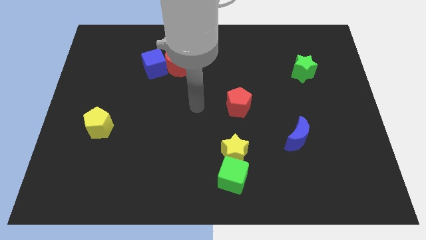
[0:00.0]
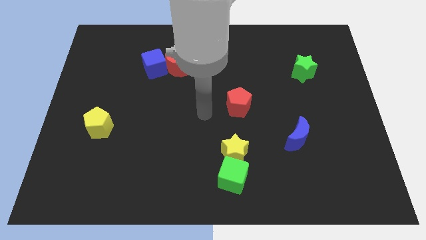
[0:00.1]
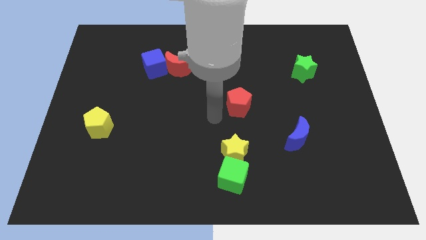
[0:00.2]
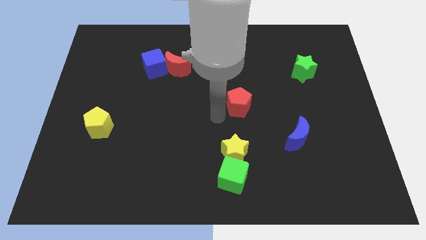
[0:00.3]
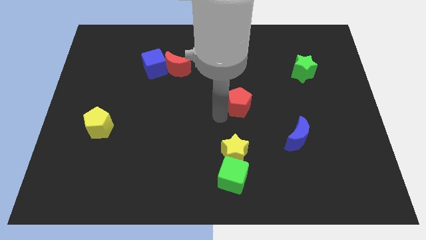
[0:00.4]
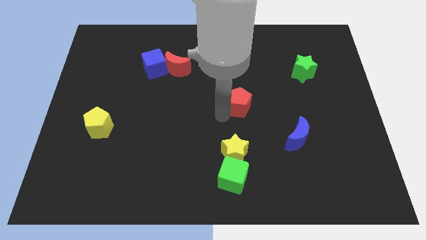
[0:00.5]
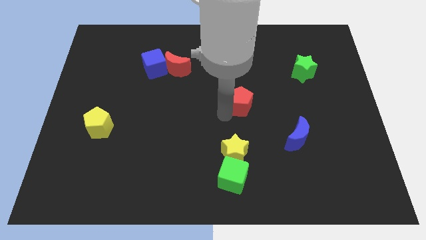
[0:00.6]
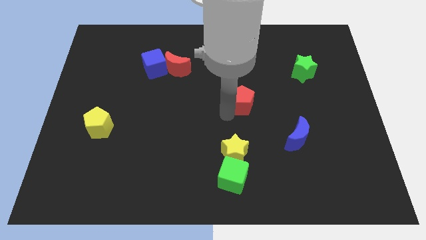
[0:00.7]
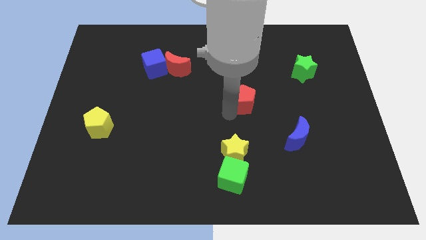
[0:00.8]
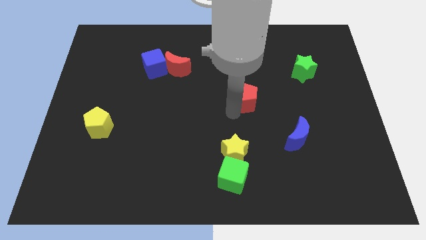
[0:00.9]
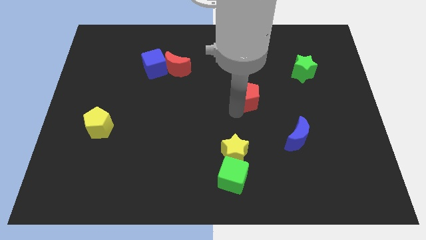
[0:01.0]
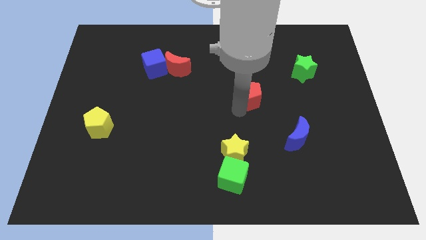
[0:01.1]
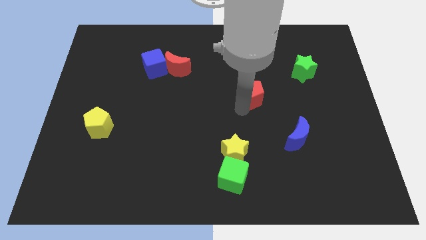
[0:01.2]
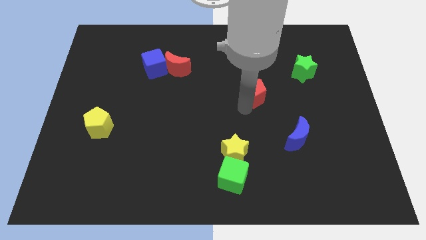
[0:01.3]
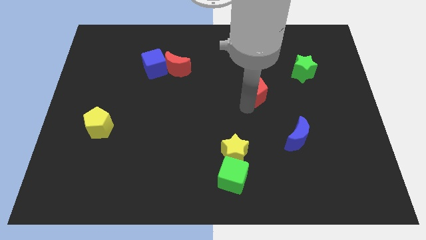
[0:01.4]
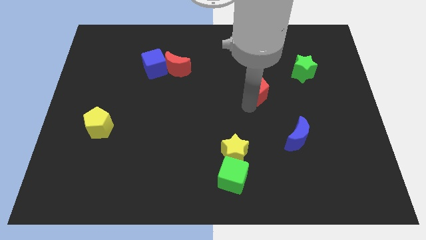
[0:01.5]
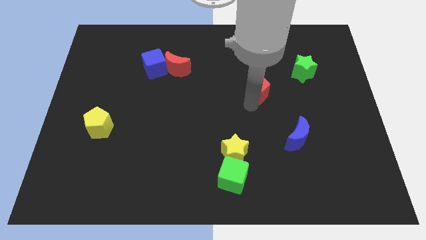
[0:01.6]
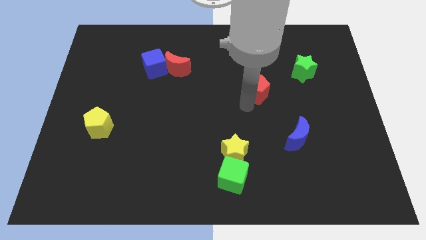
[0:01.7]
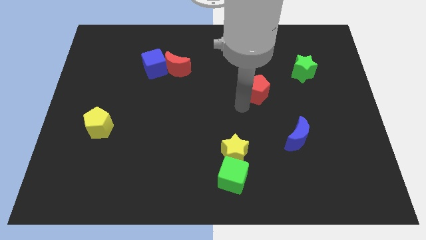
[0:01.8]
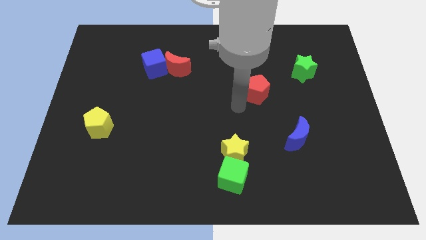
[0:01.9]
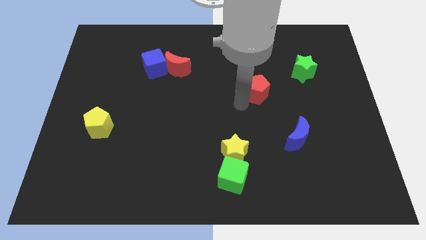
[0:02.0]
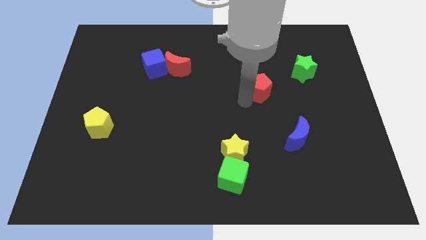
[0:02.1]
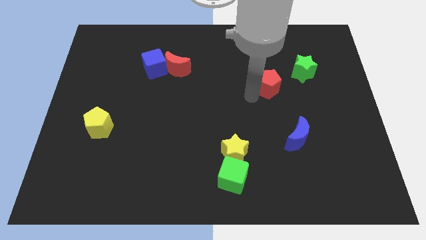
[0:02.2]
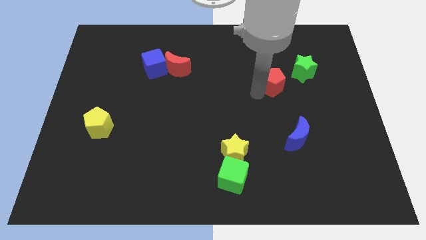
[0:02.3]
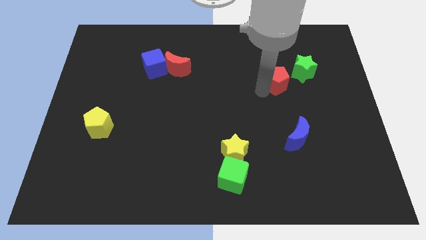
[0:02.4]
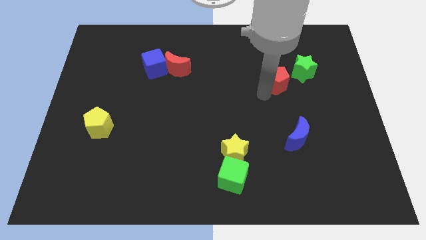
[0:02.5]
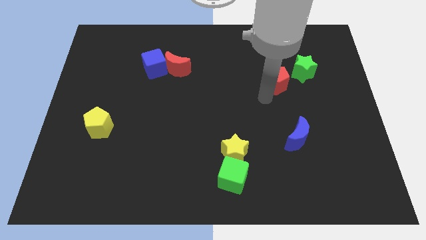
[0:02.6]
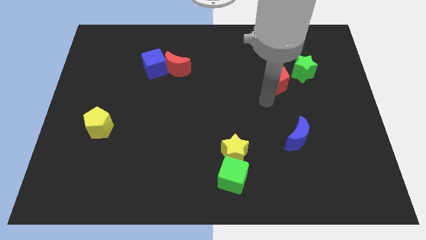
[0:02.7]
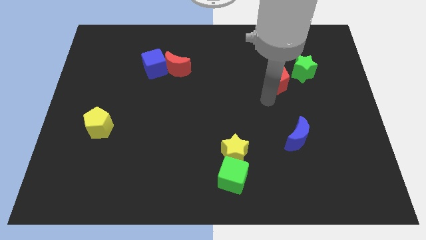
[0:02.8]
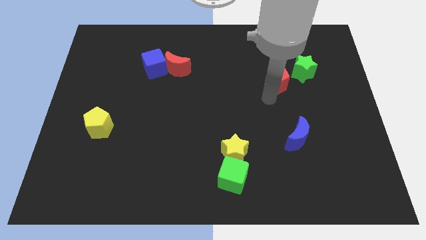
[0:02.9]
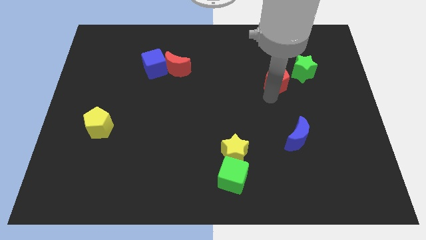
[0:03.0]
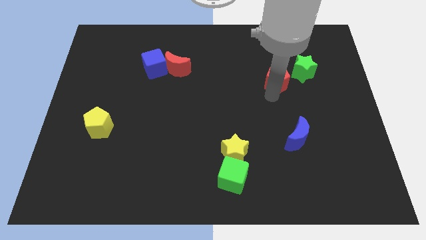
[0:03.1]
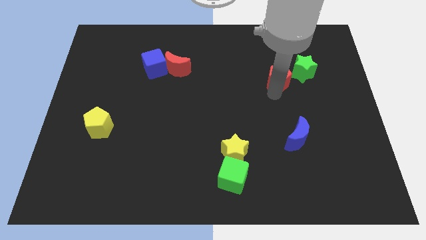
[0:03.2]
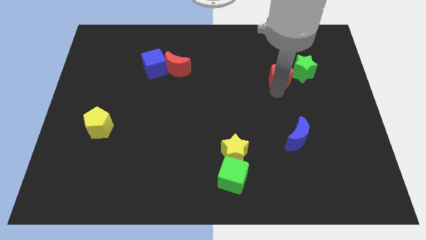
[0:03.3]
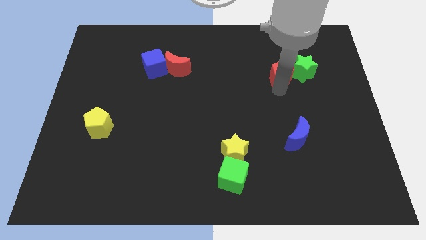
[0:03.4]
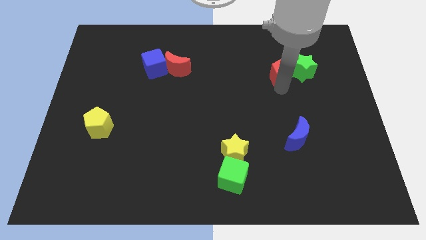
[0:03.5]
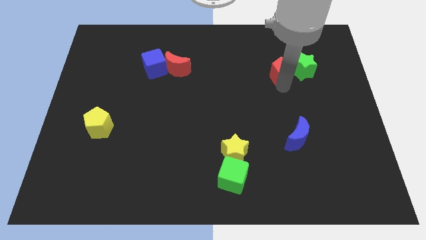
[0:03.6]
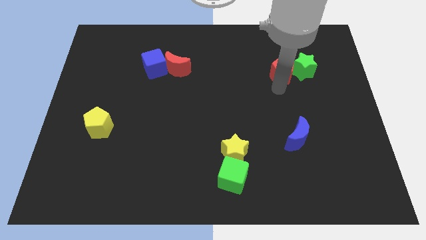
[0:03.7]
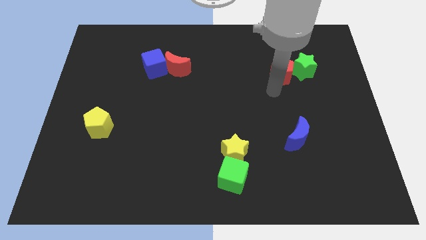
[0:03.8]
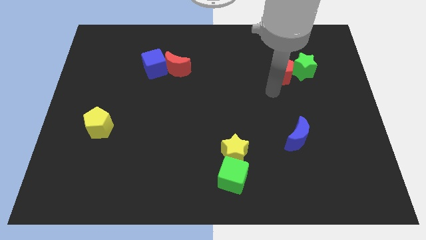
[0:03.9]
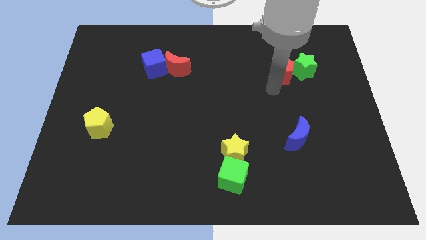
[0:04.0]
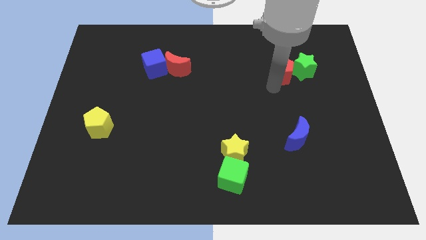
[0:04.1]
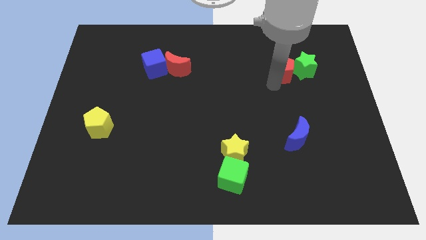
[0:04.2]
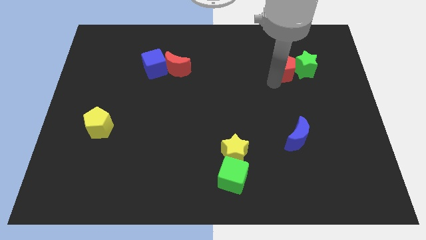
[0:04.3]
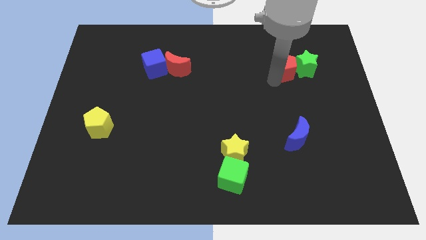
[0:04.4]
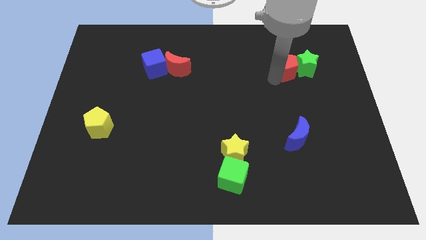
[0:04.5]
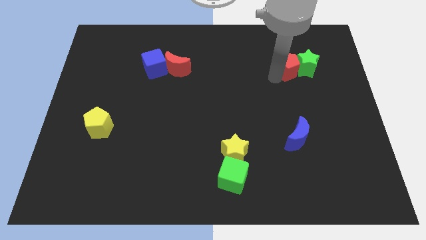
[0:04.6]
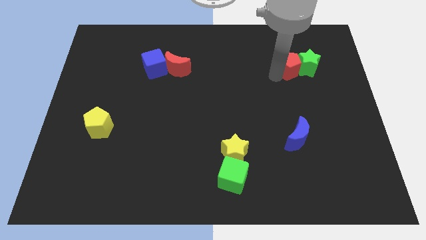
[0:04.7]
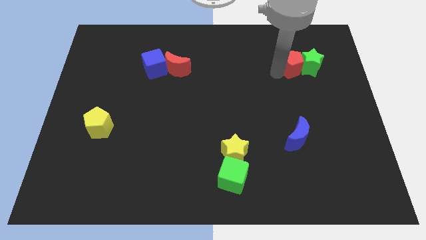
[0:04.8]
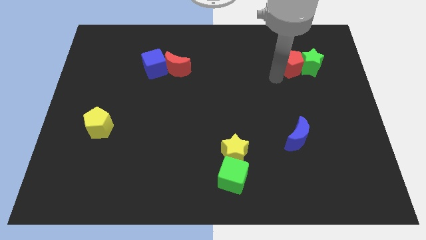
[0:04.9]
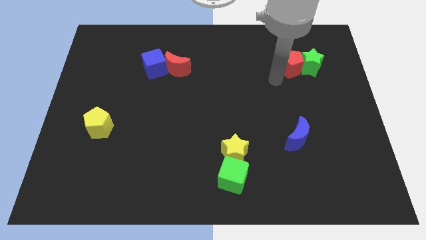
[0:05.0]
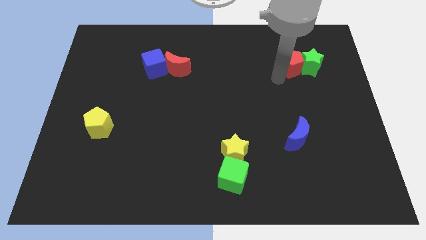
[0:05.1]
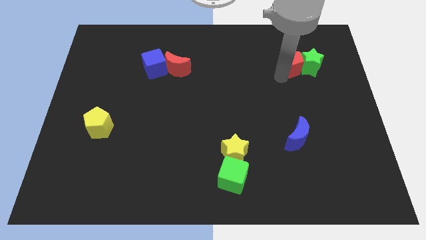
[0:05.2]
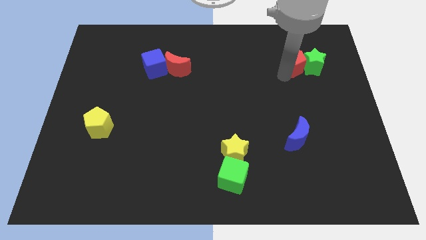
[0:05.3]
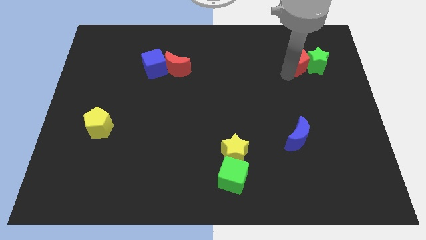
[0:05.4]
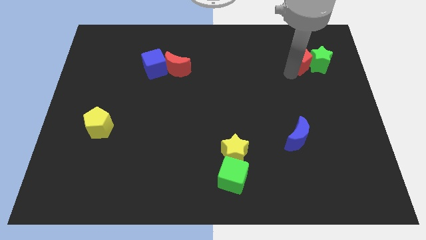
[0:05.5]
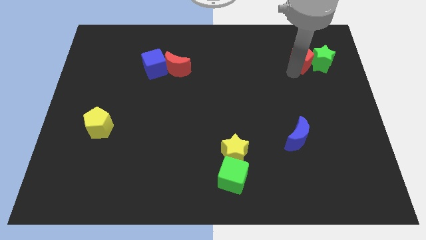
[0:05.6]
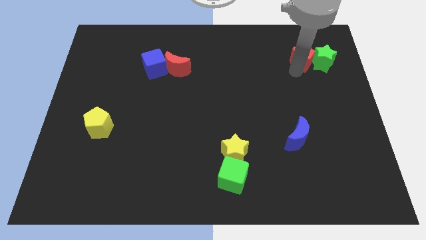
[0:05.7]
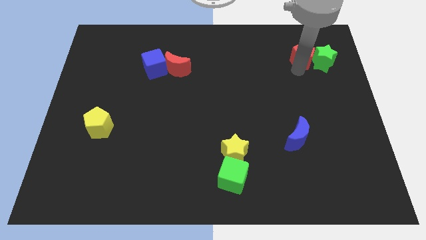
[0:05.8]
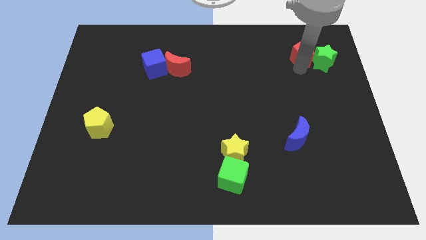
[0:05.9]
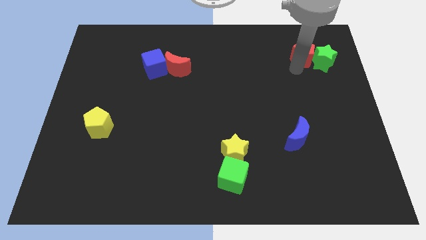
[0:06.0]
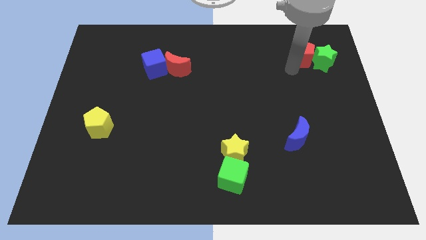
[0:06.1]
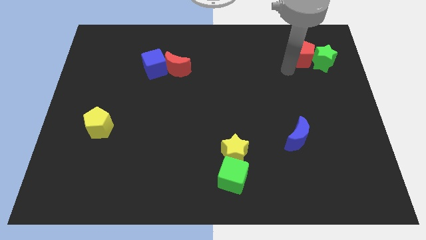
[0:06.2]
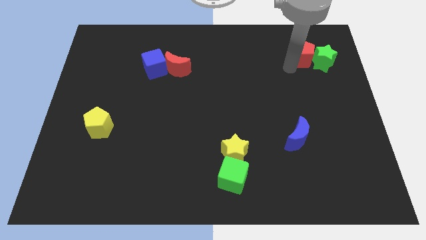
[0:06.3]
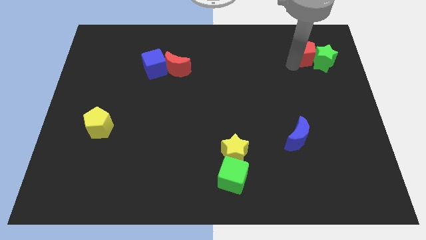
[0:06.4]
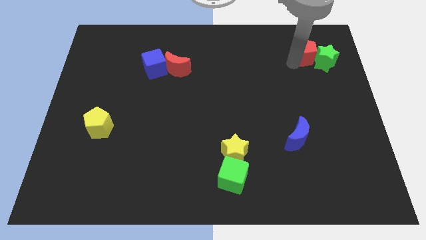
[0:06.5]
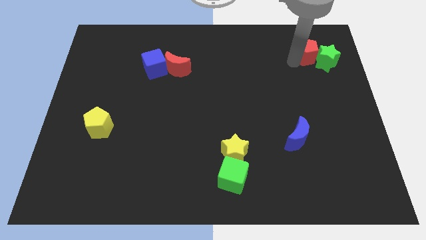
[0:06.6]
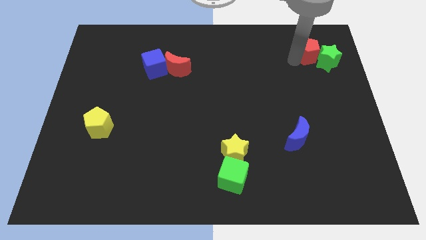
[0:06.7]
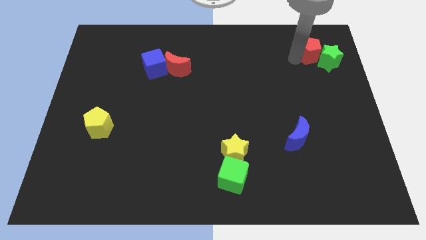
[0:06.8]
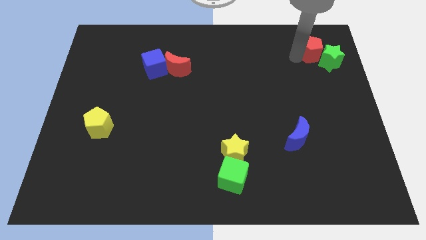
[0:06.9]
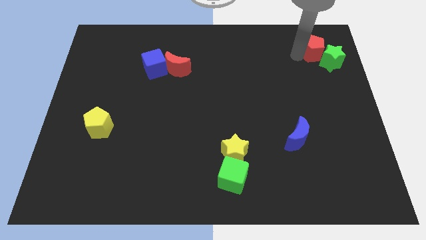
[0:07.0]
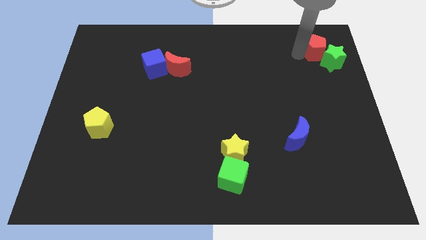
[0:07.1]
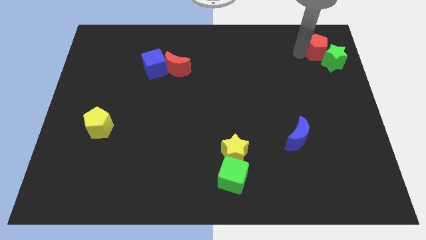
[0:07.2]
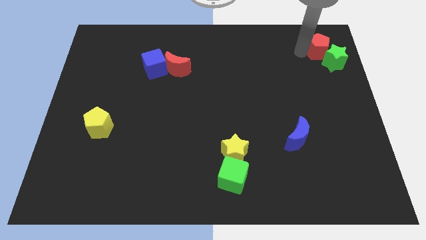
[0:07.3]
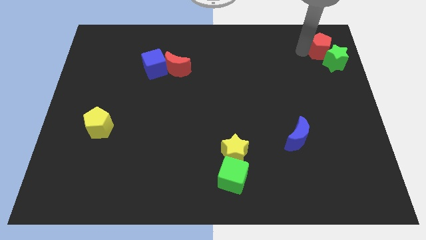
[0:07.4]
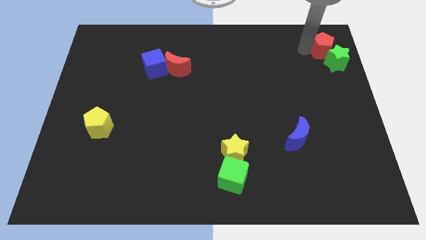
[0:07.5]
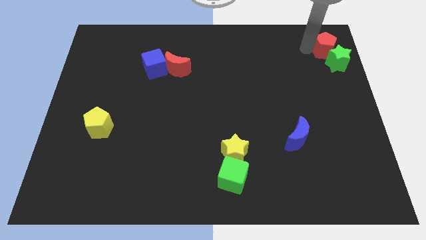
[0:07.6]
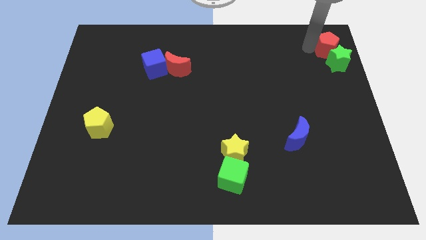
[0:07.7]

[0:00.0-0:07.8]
push the red pentagon to the upper right corner
